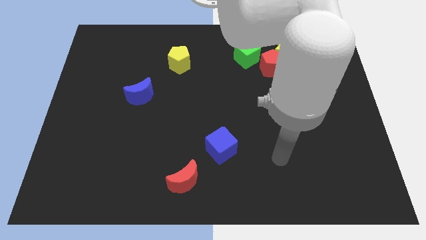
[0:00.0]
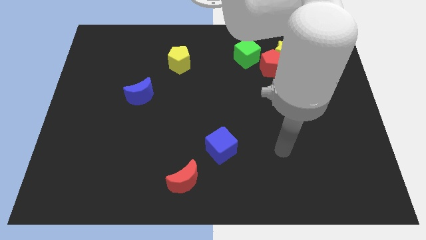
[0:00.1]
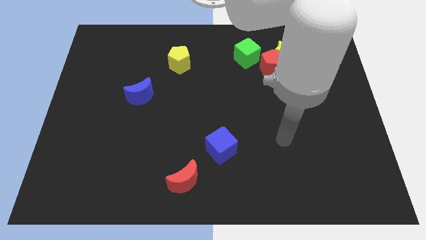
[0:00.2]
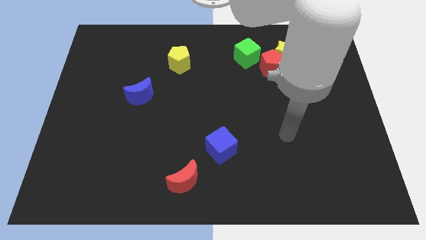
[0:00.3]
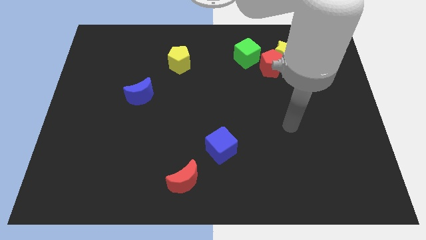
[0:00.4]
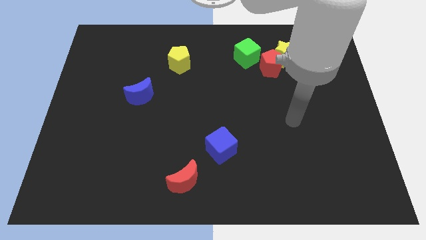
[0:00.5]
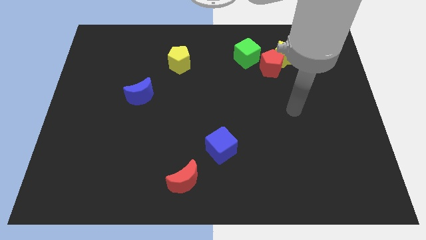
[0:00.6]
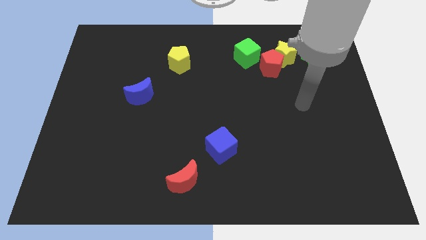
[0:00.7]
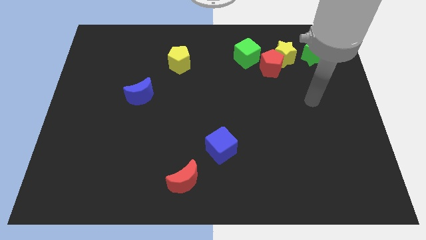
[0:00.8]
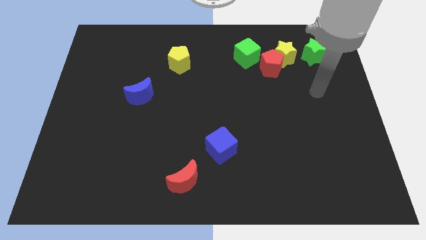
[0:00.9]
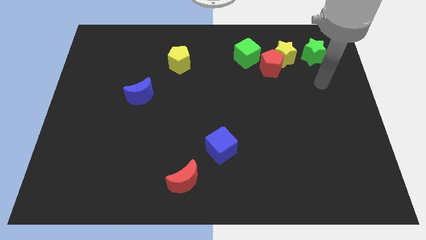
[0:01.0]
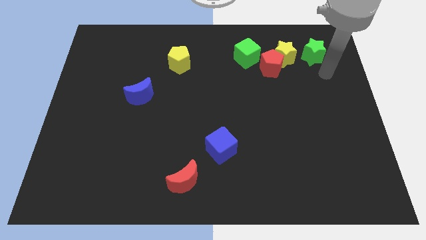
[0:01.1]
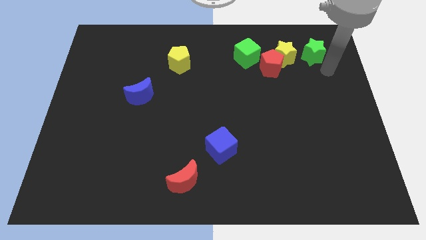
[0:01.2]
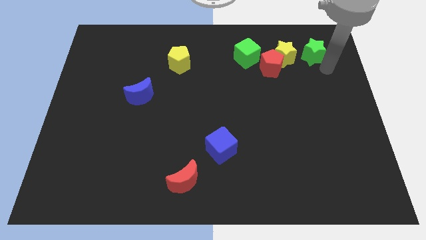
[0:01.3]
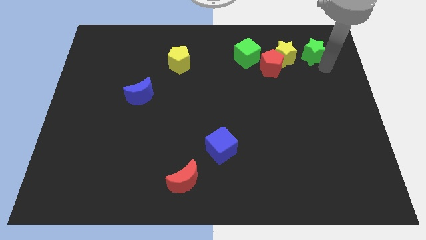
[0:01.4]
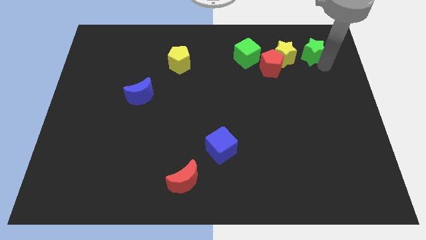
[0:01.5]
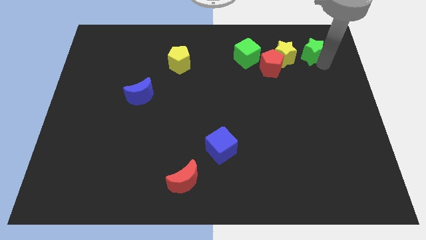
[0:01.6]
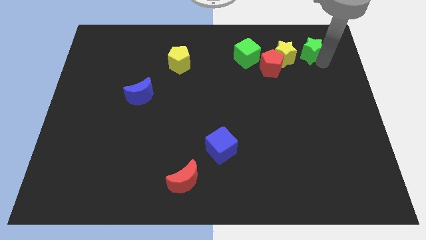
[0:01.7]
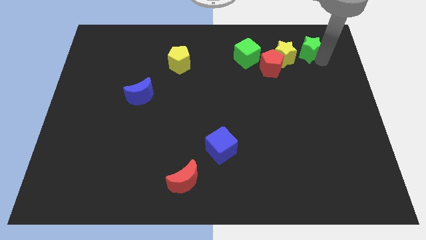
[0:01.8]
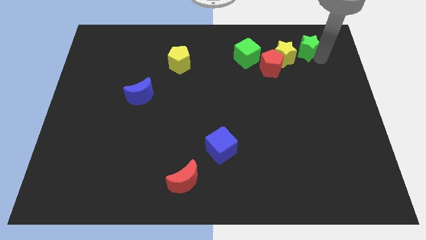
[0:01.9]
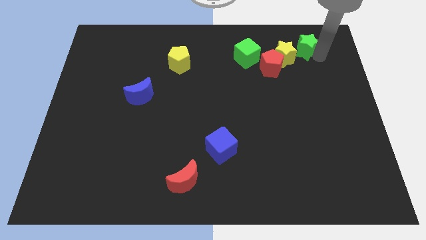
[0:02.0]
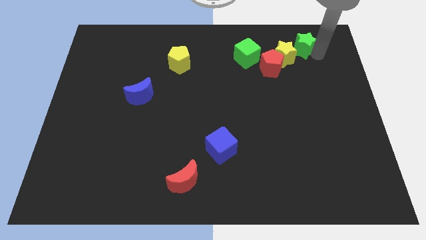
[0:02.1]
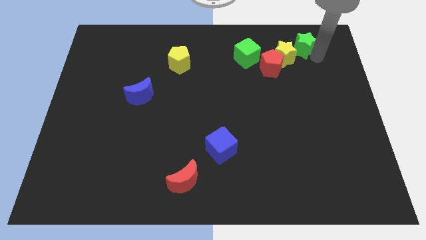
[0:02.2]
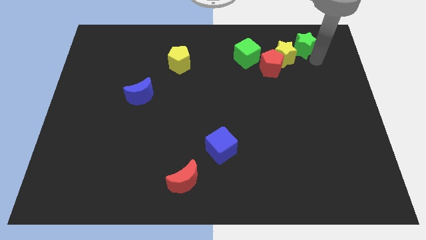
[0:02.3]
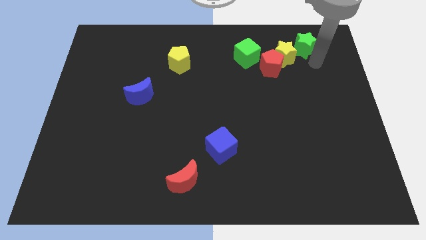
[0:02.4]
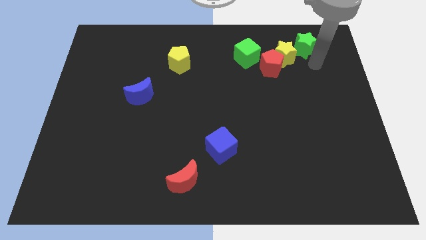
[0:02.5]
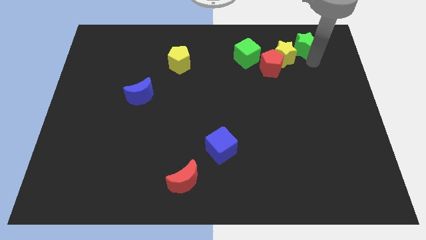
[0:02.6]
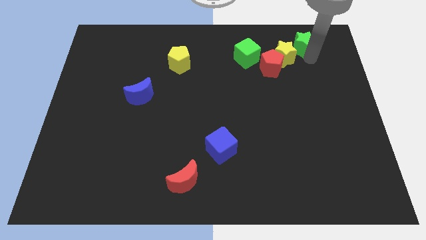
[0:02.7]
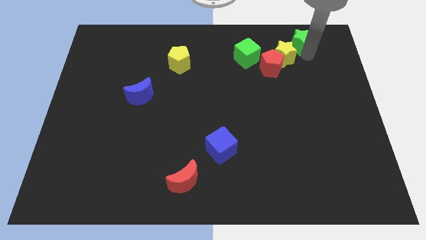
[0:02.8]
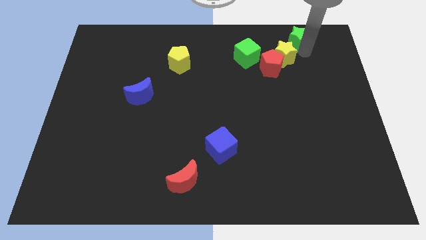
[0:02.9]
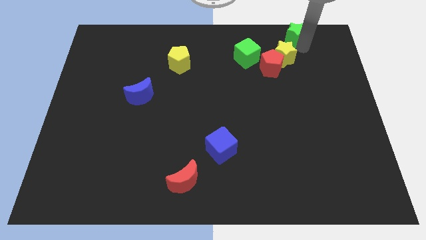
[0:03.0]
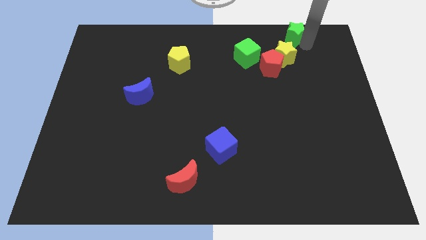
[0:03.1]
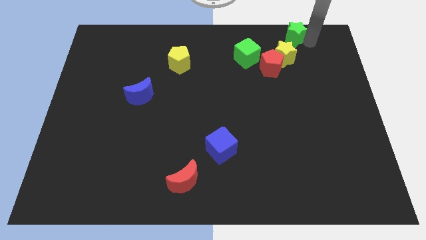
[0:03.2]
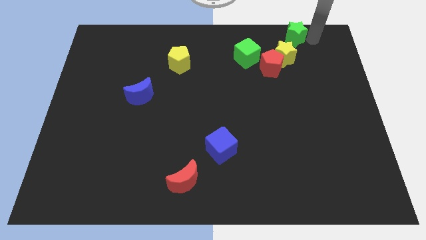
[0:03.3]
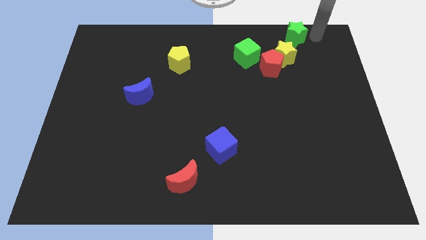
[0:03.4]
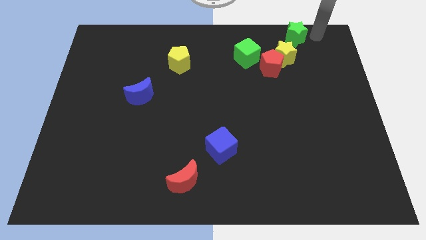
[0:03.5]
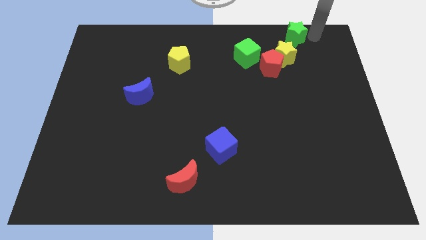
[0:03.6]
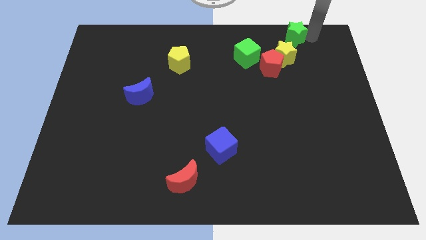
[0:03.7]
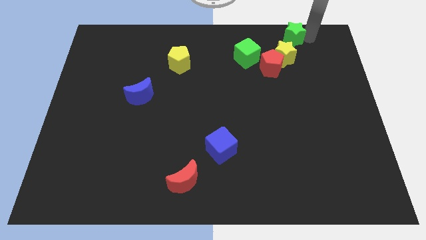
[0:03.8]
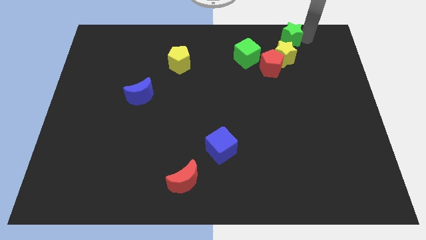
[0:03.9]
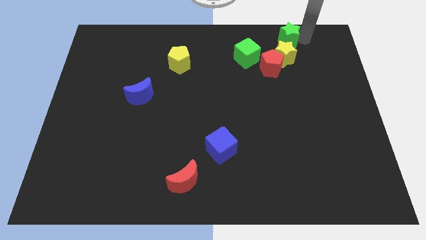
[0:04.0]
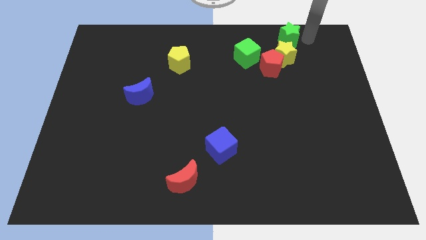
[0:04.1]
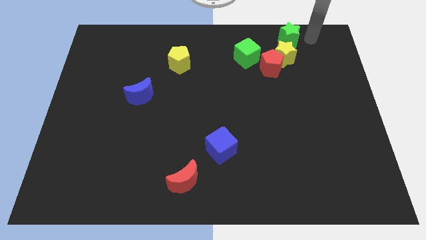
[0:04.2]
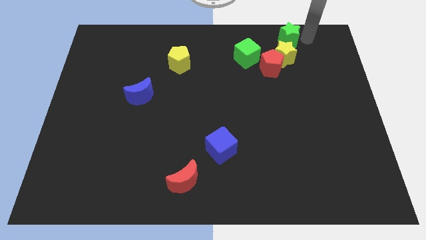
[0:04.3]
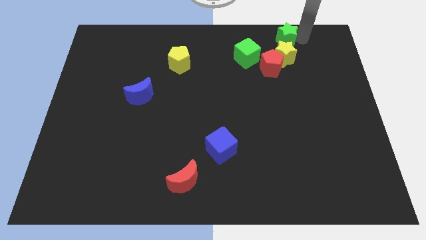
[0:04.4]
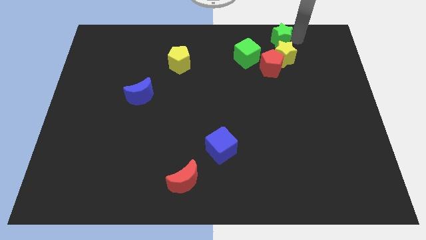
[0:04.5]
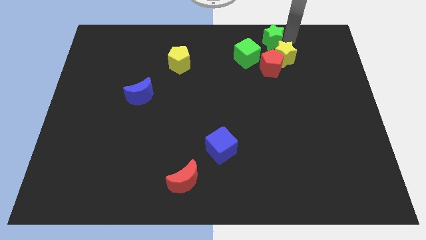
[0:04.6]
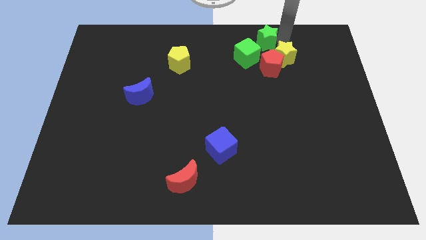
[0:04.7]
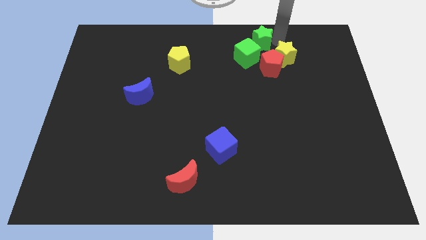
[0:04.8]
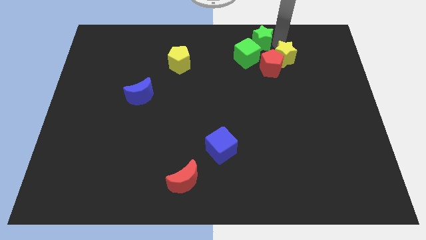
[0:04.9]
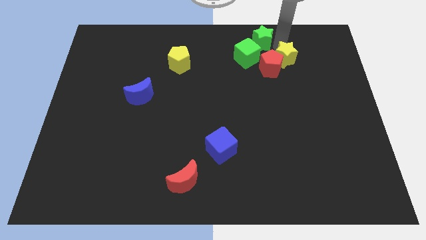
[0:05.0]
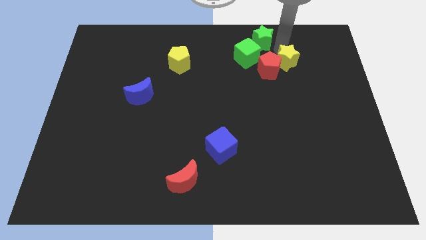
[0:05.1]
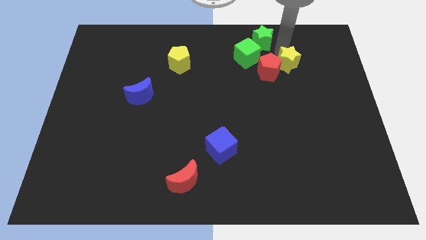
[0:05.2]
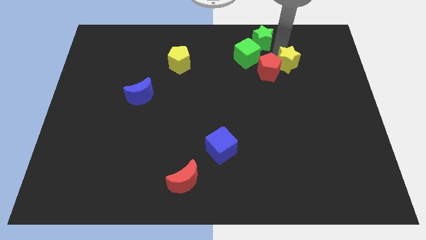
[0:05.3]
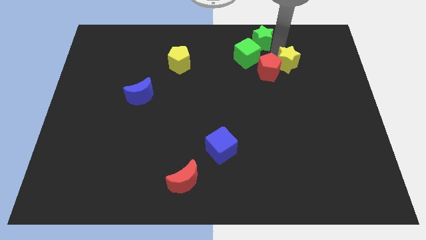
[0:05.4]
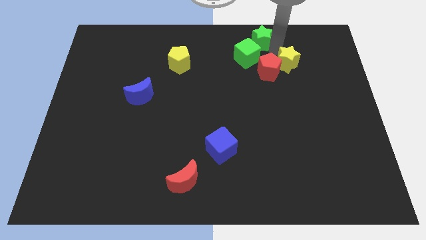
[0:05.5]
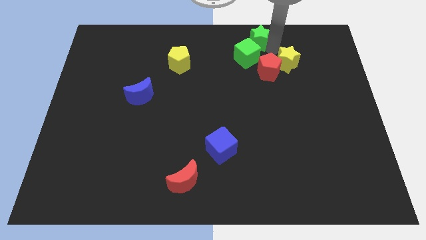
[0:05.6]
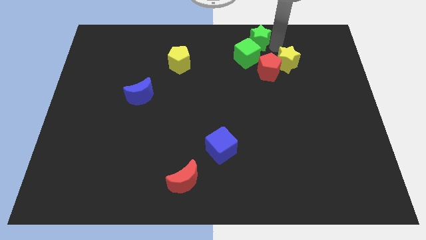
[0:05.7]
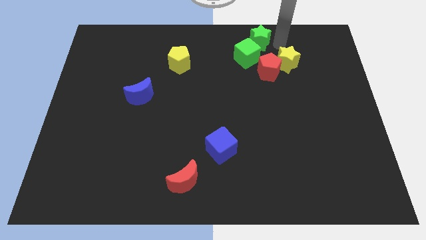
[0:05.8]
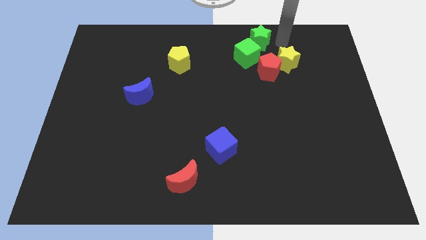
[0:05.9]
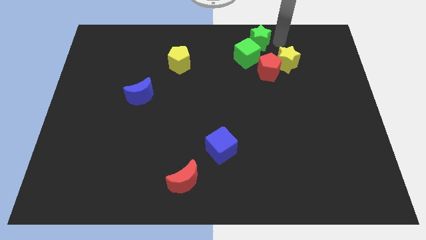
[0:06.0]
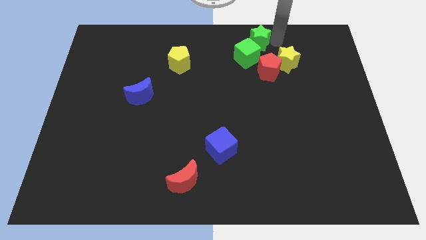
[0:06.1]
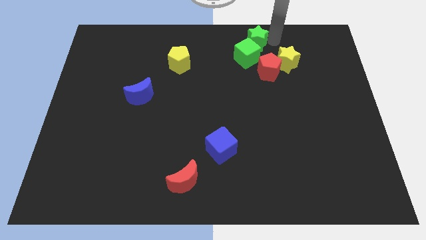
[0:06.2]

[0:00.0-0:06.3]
push the green star to the towards your base

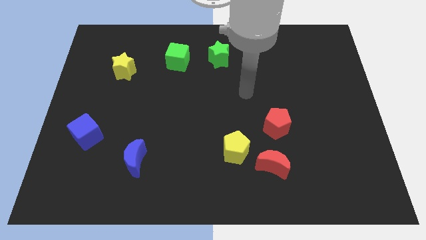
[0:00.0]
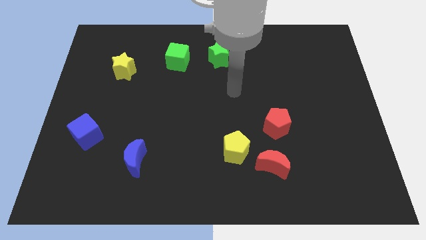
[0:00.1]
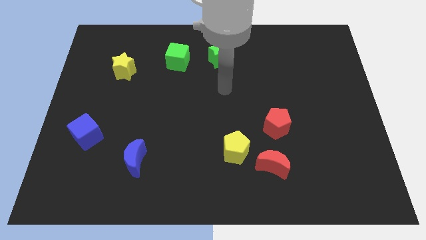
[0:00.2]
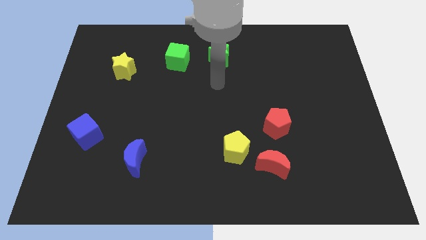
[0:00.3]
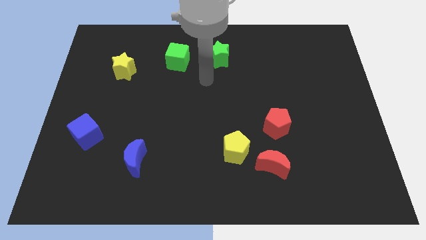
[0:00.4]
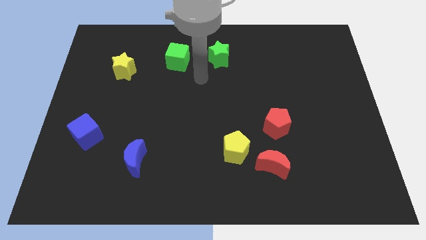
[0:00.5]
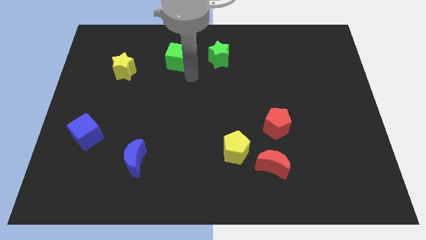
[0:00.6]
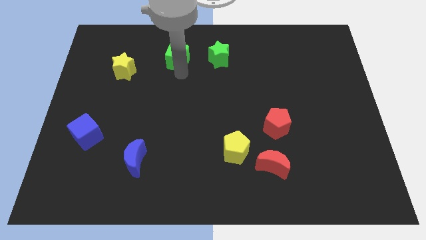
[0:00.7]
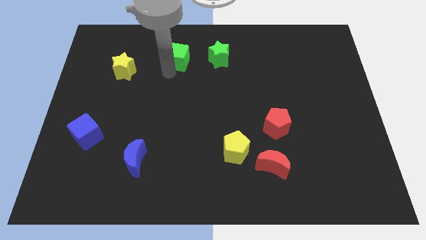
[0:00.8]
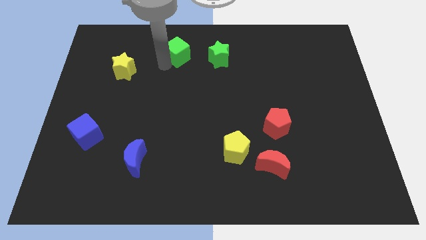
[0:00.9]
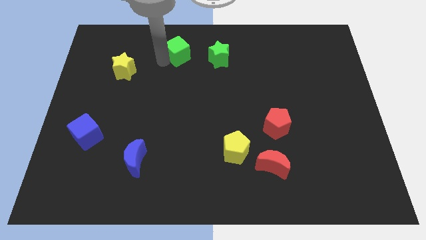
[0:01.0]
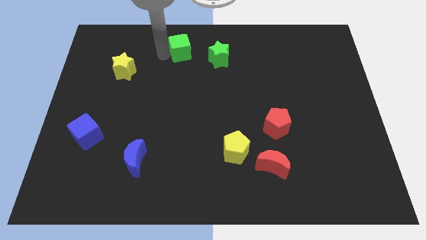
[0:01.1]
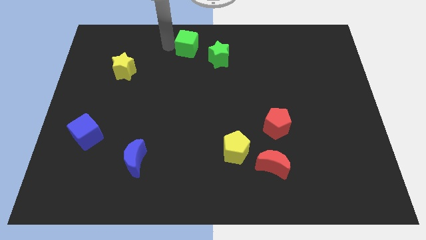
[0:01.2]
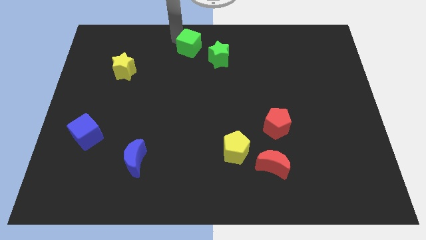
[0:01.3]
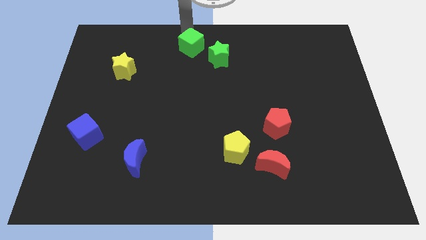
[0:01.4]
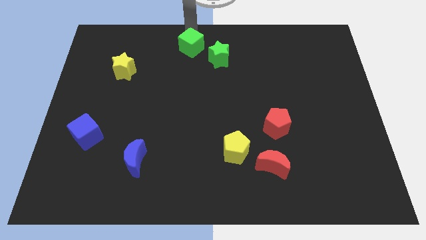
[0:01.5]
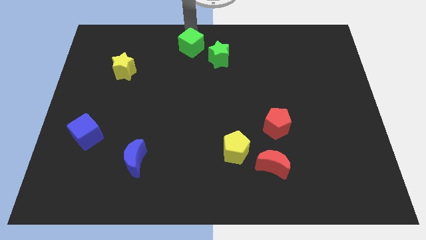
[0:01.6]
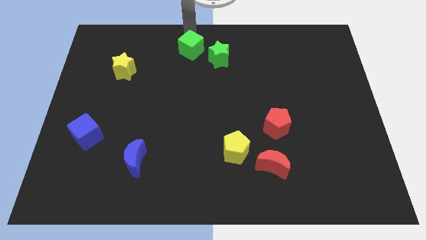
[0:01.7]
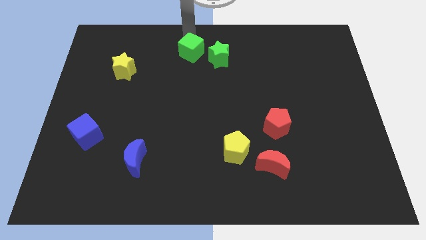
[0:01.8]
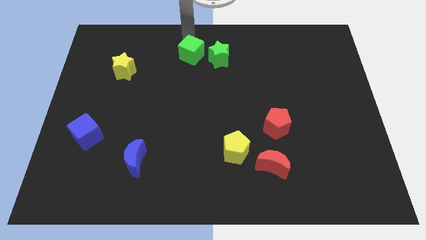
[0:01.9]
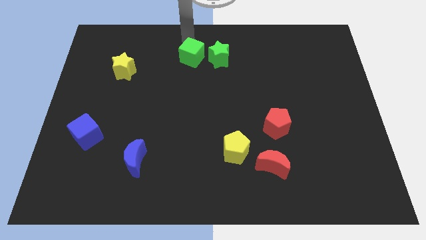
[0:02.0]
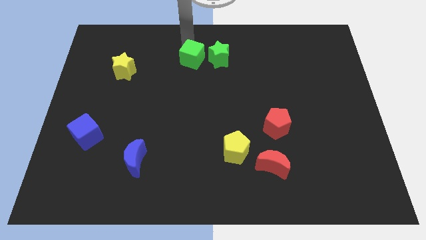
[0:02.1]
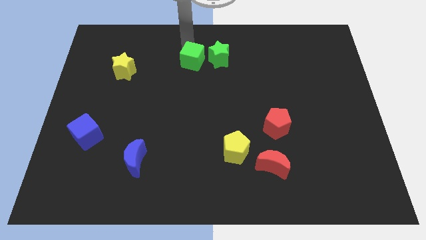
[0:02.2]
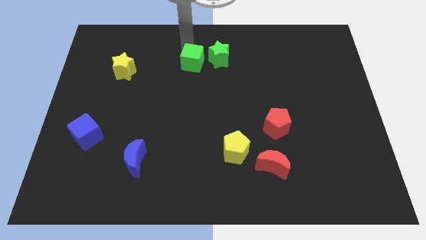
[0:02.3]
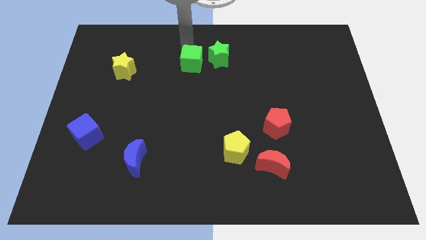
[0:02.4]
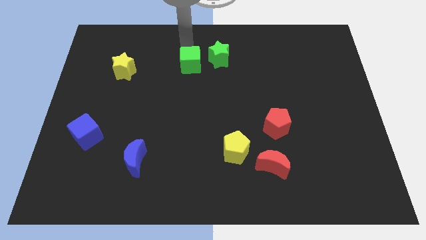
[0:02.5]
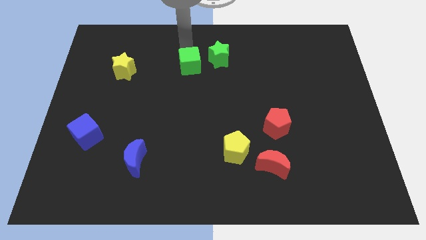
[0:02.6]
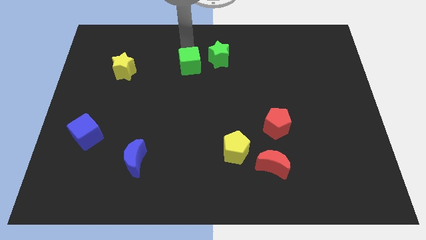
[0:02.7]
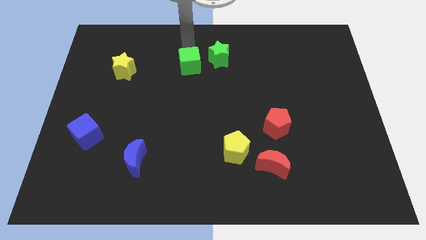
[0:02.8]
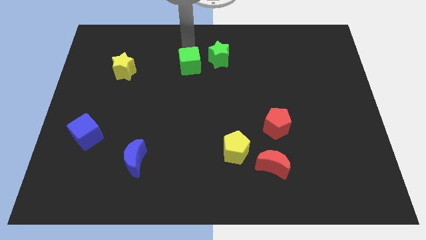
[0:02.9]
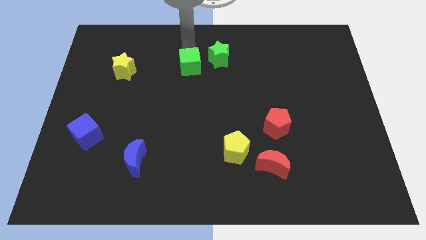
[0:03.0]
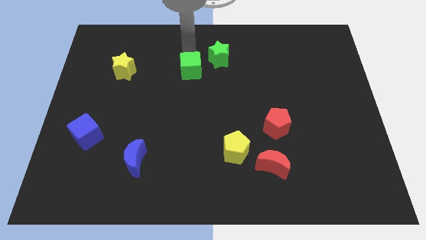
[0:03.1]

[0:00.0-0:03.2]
move the green cube to the center
